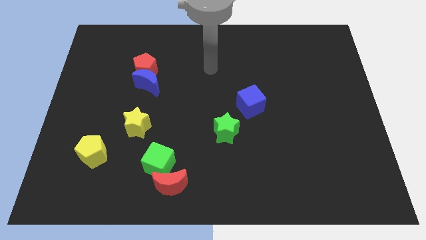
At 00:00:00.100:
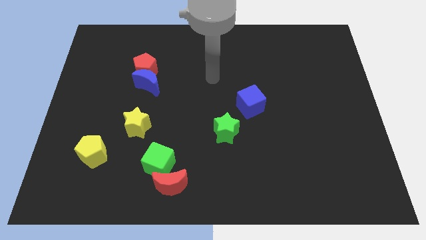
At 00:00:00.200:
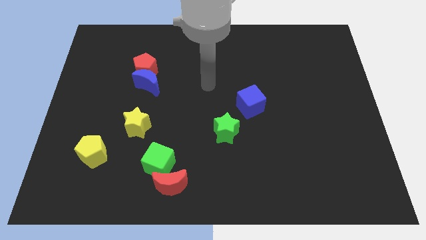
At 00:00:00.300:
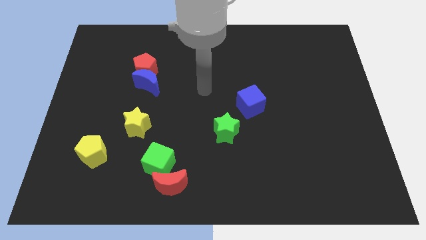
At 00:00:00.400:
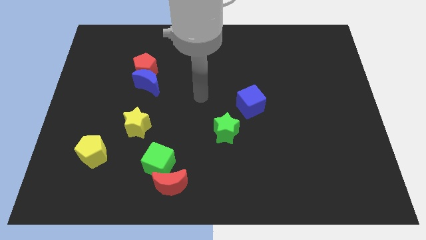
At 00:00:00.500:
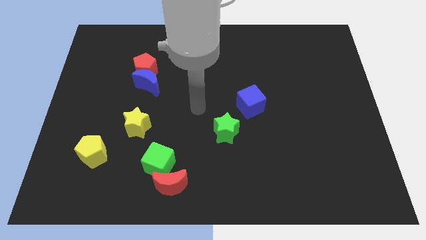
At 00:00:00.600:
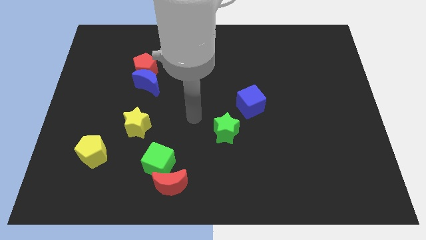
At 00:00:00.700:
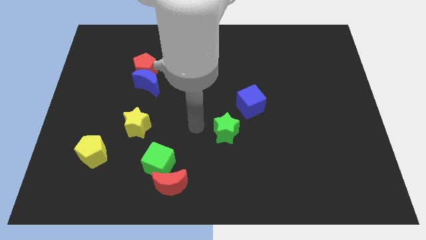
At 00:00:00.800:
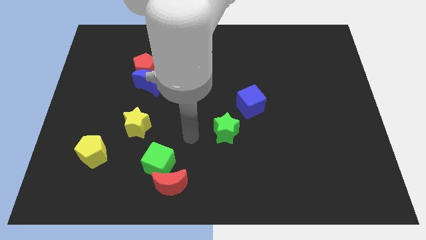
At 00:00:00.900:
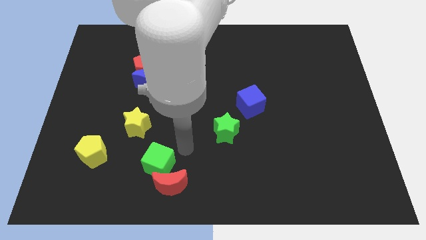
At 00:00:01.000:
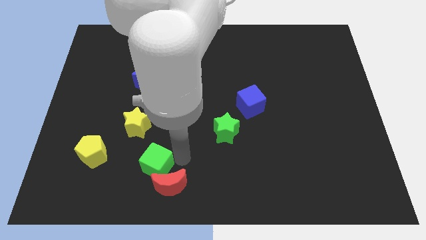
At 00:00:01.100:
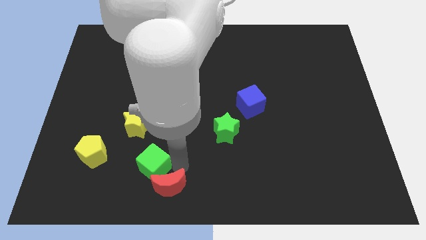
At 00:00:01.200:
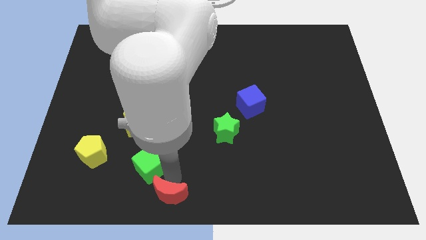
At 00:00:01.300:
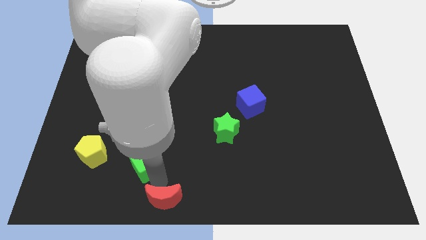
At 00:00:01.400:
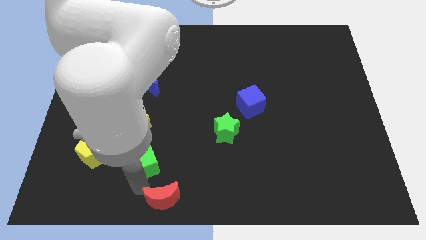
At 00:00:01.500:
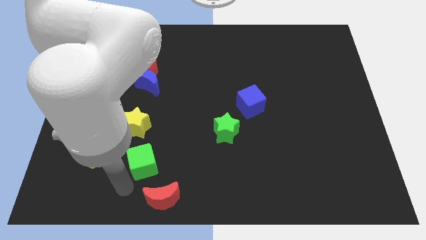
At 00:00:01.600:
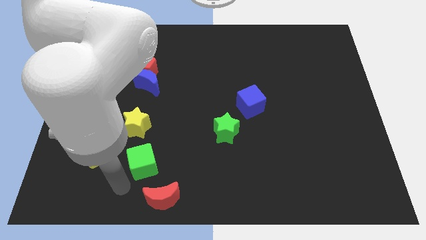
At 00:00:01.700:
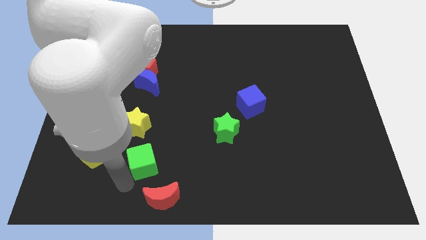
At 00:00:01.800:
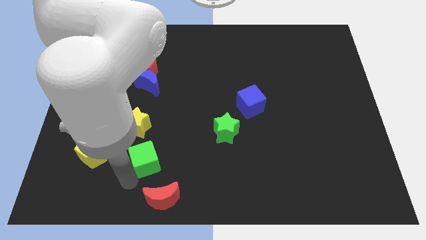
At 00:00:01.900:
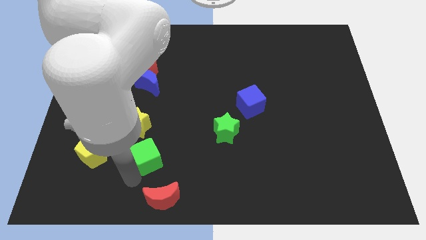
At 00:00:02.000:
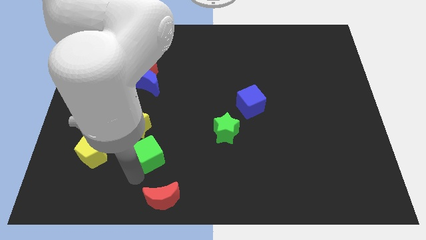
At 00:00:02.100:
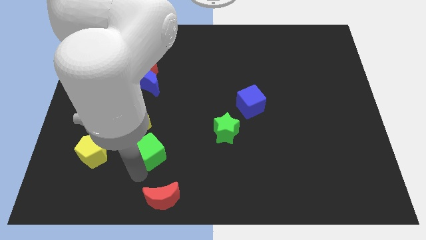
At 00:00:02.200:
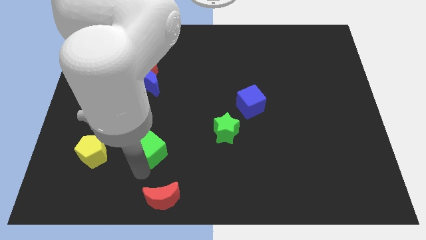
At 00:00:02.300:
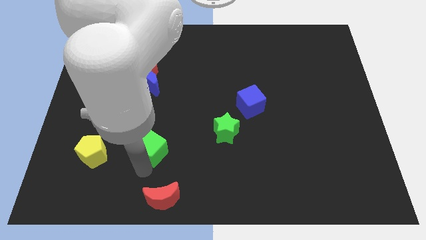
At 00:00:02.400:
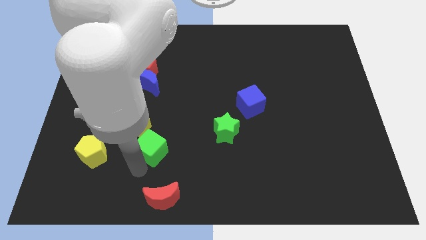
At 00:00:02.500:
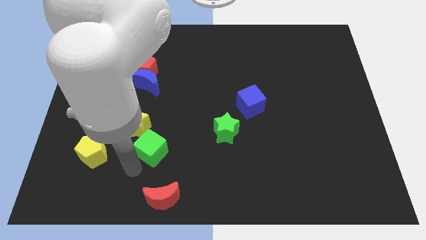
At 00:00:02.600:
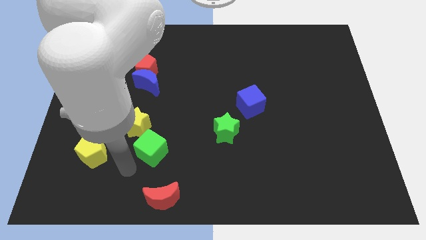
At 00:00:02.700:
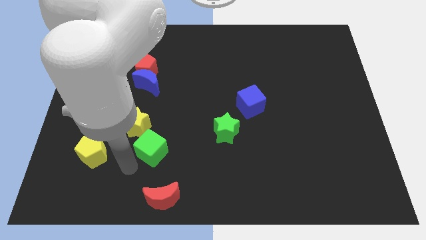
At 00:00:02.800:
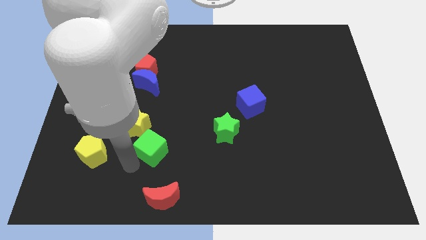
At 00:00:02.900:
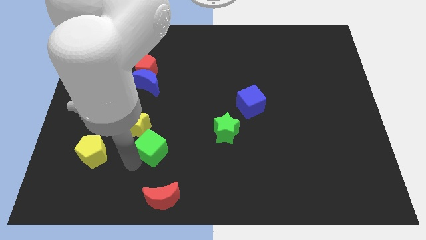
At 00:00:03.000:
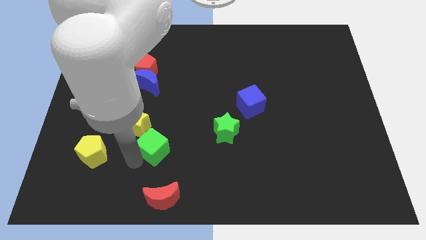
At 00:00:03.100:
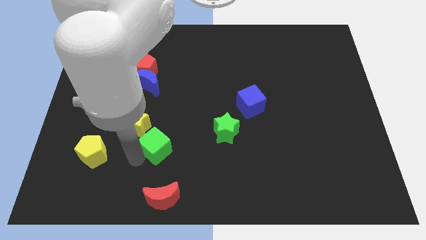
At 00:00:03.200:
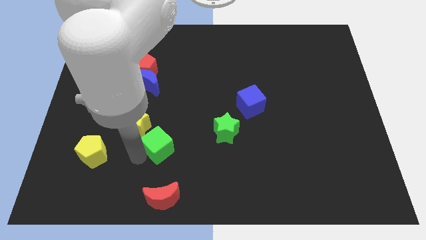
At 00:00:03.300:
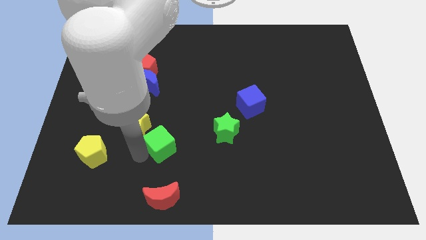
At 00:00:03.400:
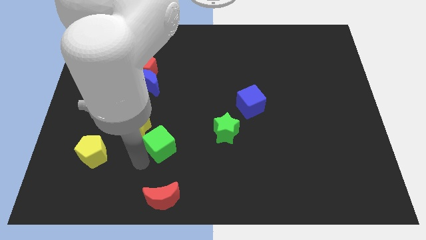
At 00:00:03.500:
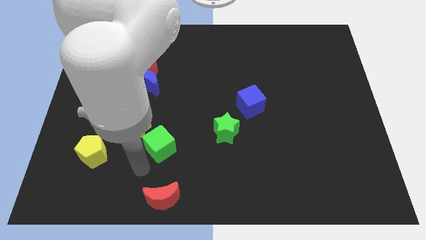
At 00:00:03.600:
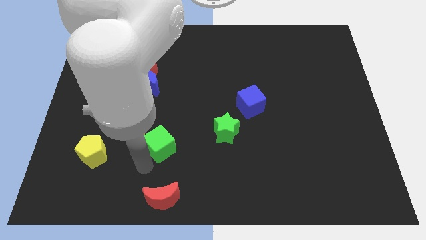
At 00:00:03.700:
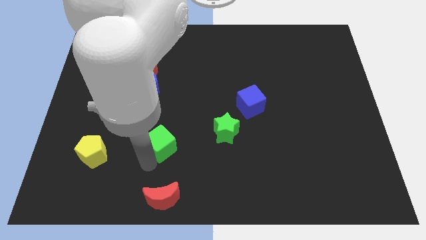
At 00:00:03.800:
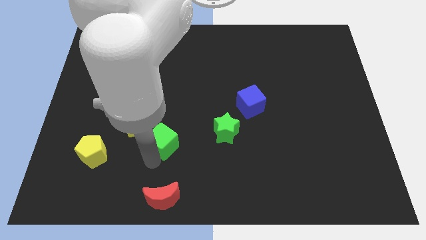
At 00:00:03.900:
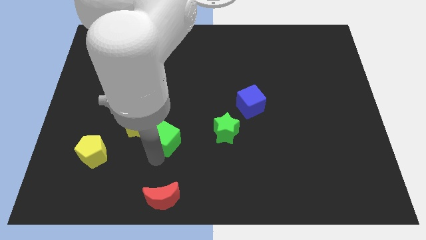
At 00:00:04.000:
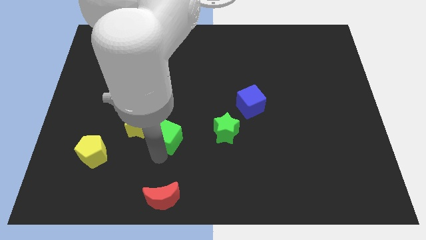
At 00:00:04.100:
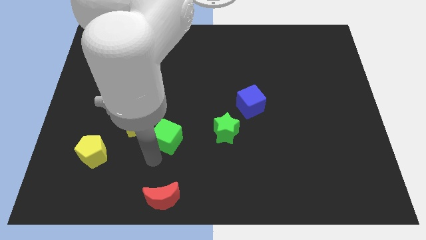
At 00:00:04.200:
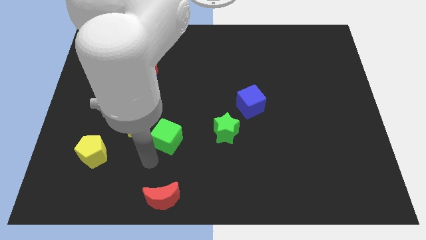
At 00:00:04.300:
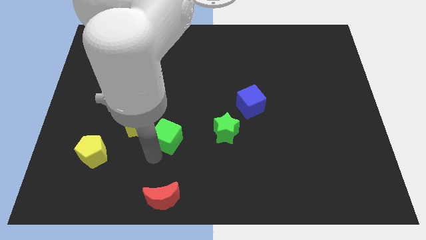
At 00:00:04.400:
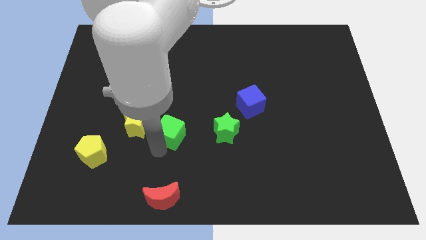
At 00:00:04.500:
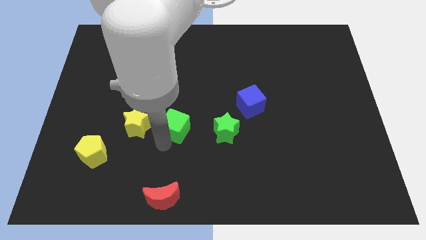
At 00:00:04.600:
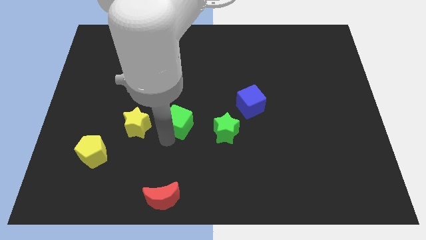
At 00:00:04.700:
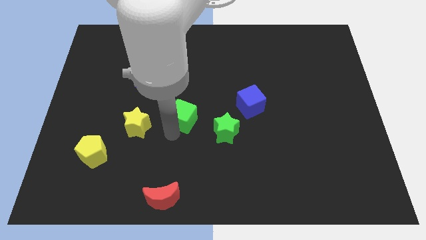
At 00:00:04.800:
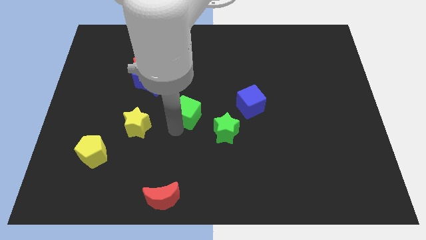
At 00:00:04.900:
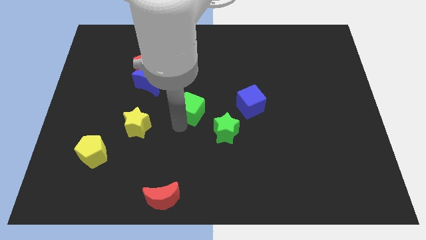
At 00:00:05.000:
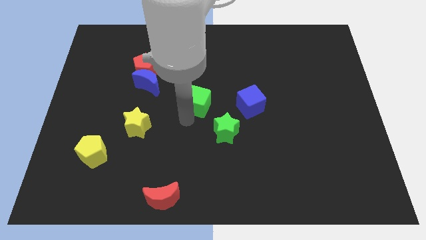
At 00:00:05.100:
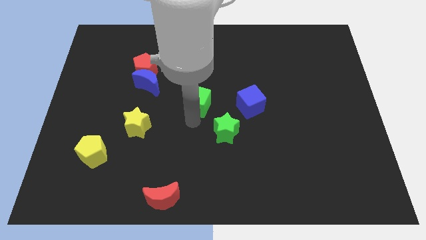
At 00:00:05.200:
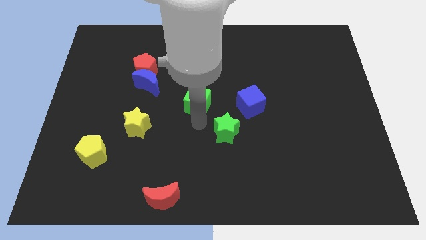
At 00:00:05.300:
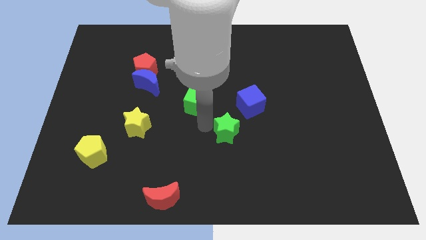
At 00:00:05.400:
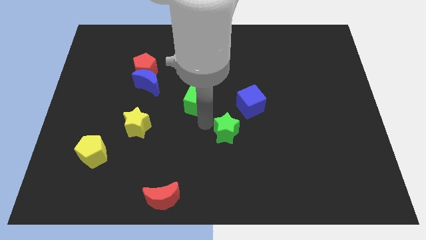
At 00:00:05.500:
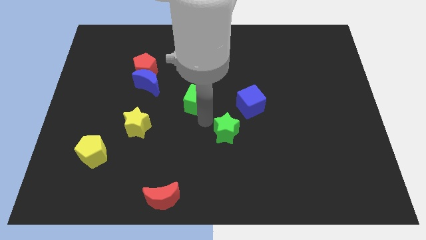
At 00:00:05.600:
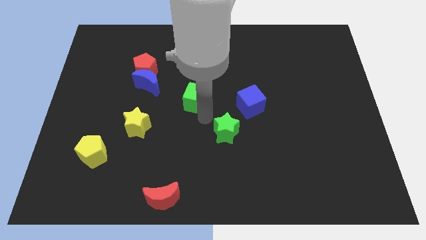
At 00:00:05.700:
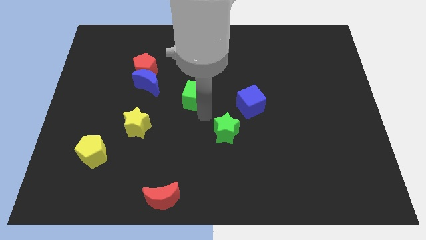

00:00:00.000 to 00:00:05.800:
put the green cube just right of the blue moon
